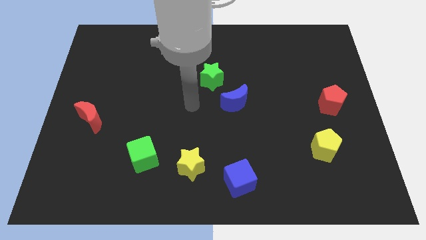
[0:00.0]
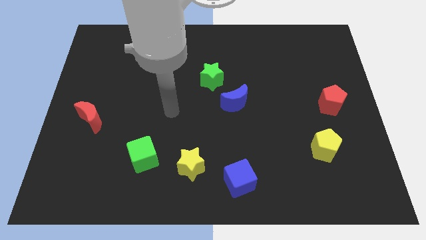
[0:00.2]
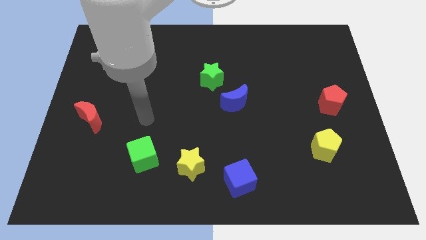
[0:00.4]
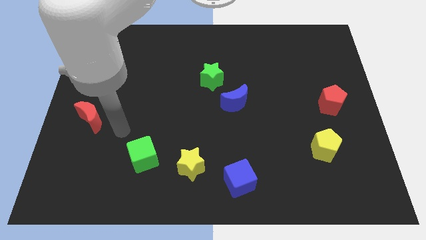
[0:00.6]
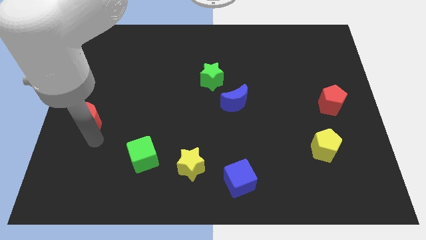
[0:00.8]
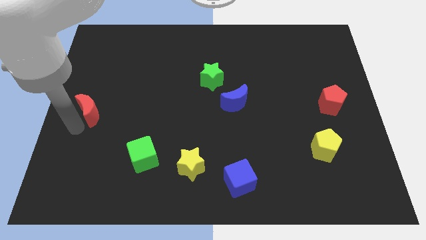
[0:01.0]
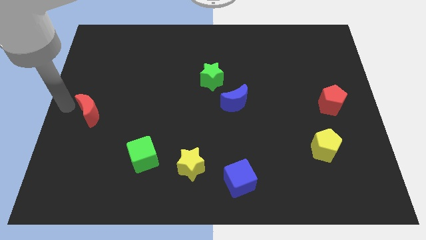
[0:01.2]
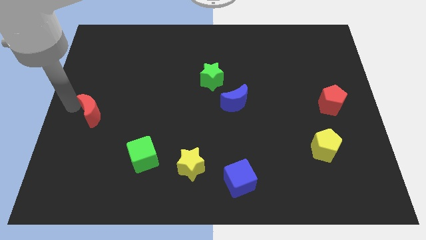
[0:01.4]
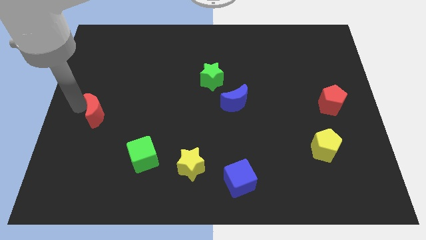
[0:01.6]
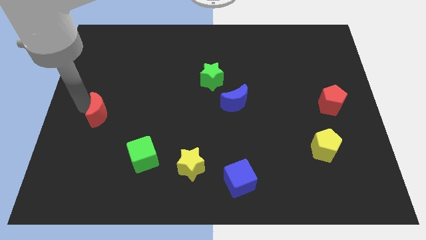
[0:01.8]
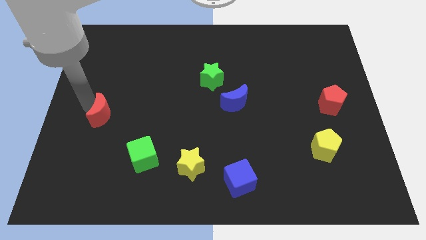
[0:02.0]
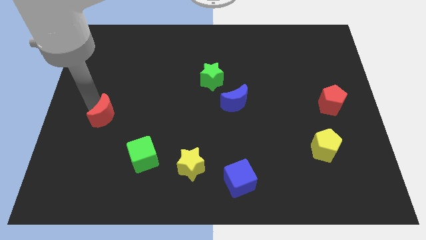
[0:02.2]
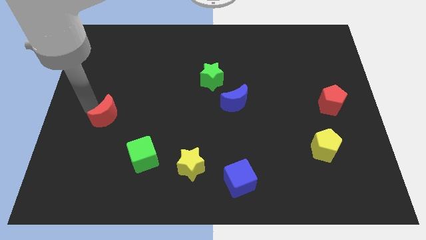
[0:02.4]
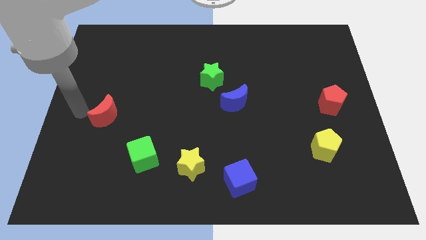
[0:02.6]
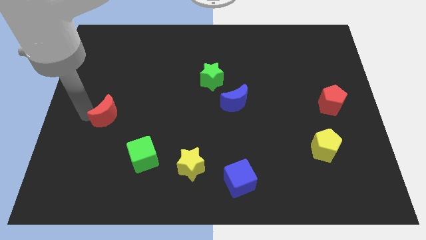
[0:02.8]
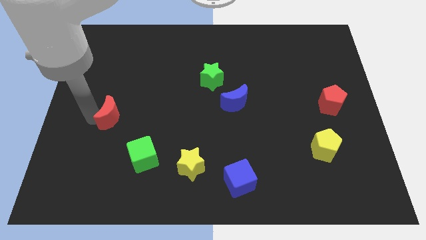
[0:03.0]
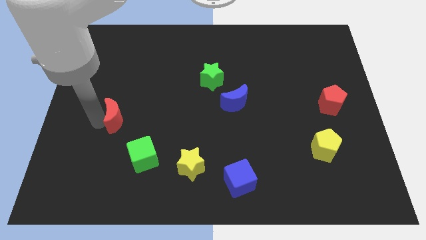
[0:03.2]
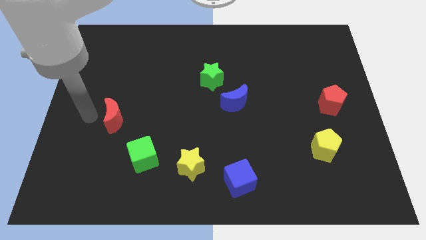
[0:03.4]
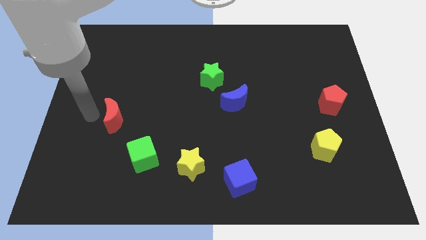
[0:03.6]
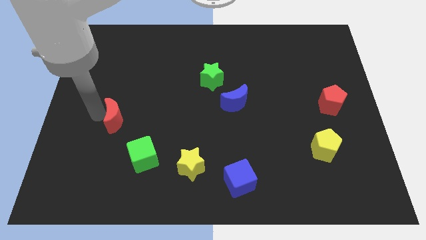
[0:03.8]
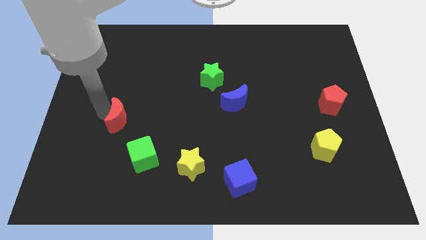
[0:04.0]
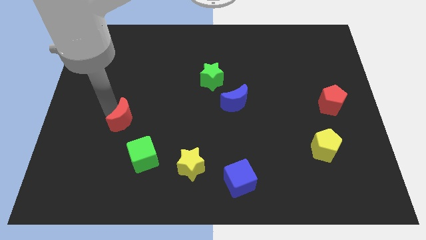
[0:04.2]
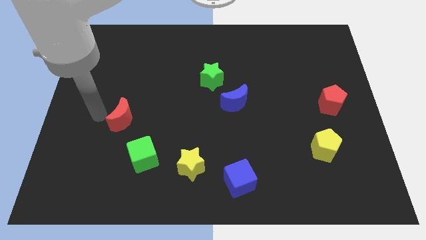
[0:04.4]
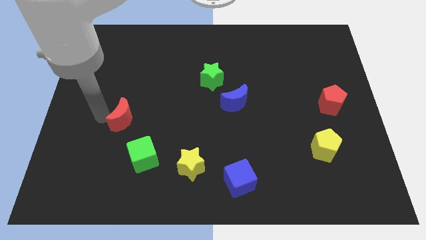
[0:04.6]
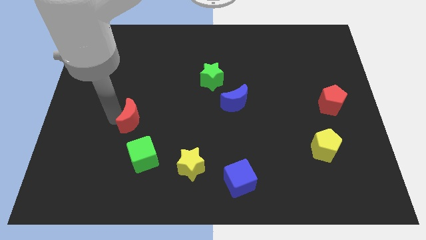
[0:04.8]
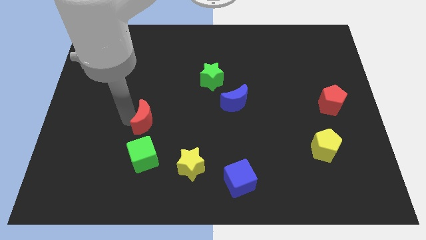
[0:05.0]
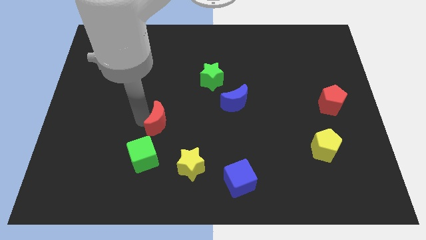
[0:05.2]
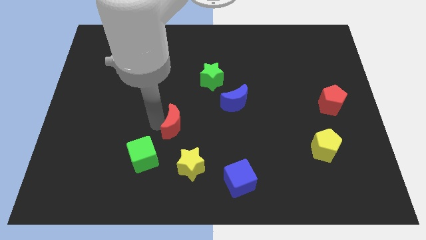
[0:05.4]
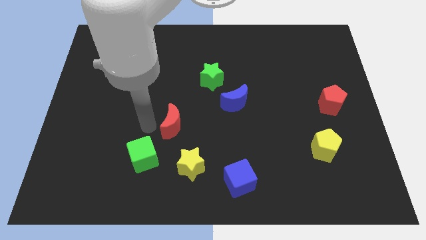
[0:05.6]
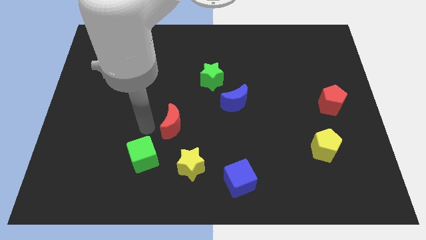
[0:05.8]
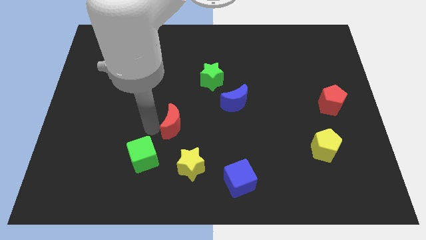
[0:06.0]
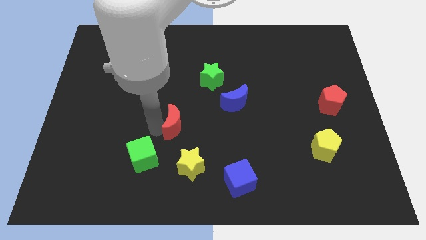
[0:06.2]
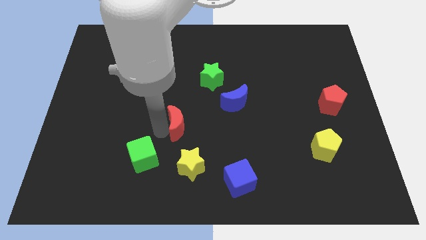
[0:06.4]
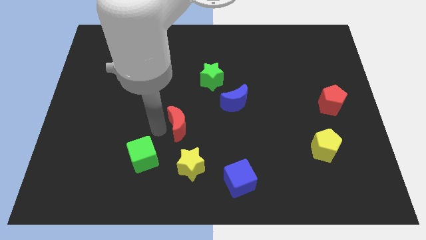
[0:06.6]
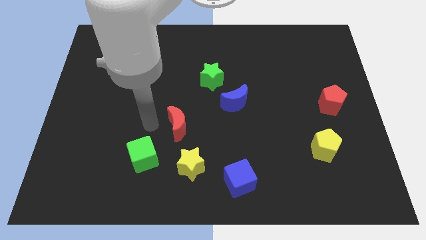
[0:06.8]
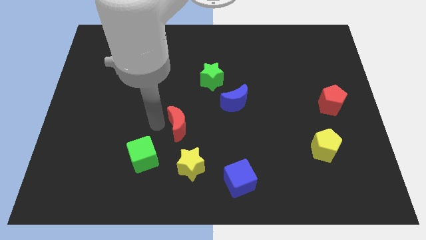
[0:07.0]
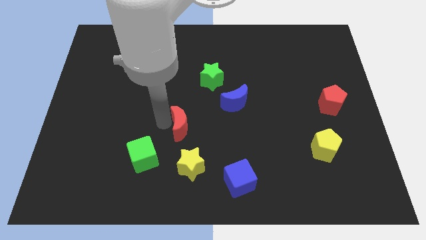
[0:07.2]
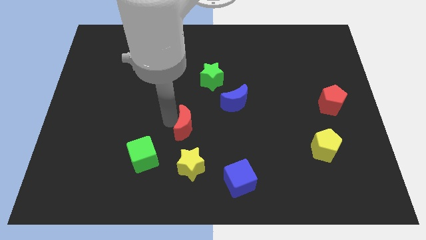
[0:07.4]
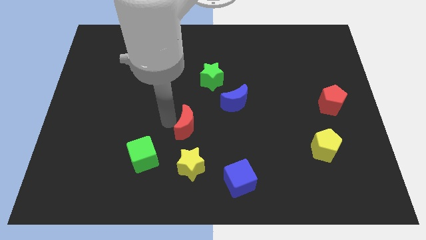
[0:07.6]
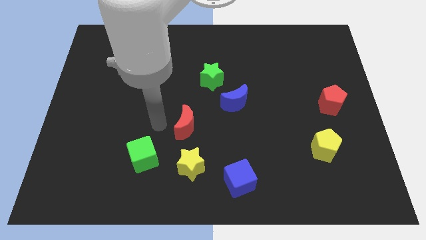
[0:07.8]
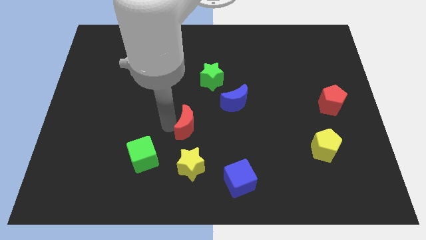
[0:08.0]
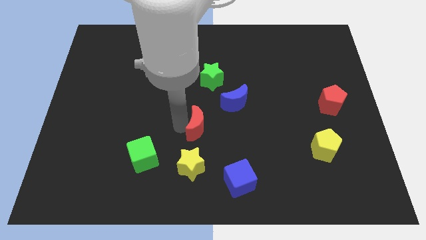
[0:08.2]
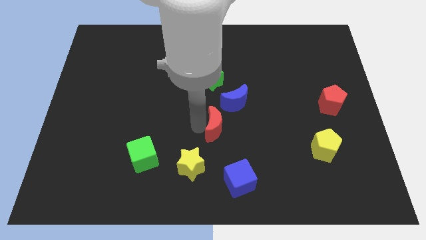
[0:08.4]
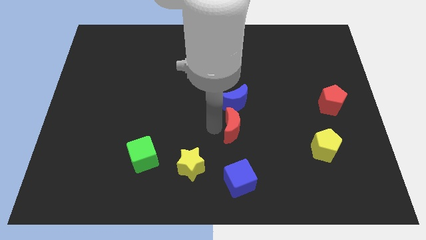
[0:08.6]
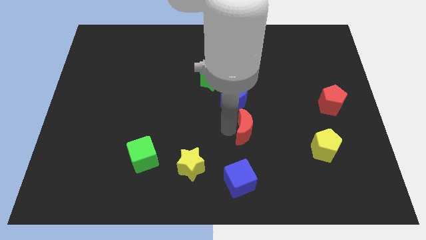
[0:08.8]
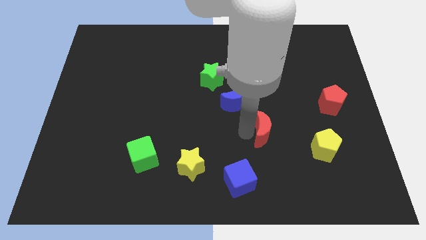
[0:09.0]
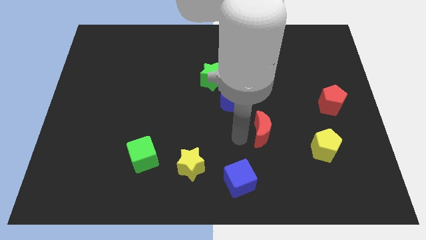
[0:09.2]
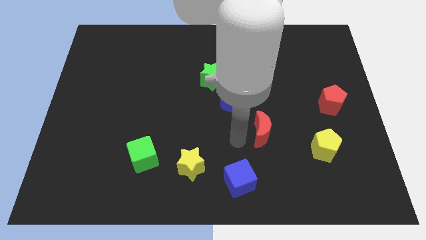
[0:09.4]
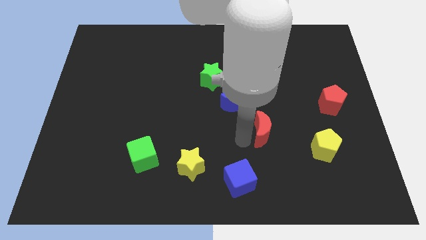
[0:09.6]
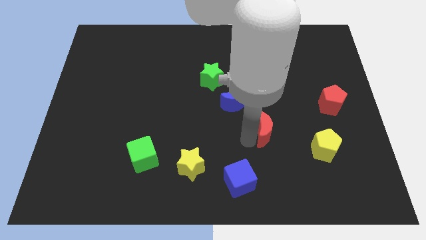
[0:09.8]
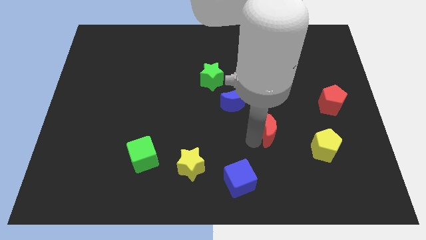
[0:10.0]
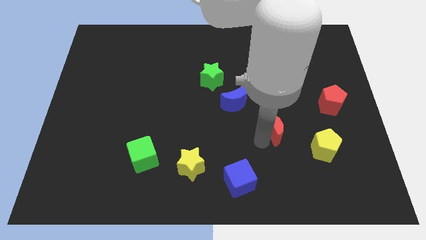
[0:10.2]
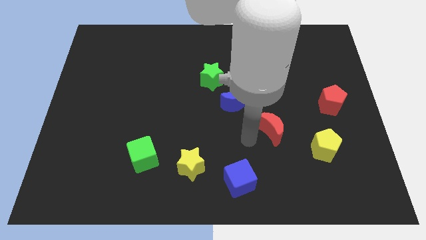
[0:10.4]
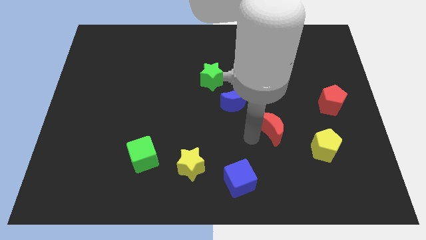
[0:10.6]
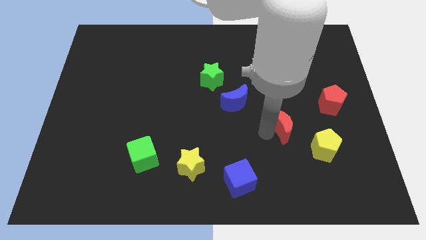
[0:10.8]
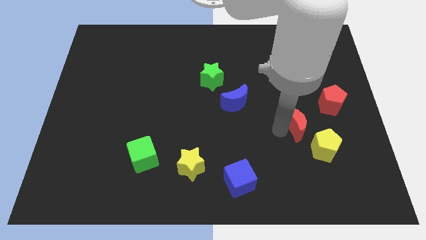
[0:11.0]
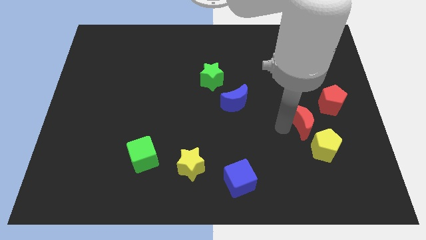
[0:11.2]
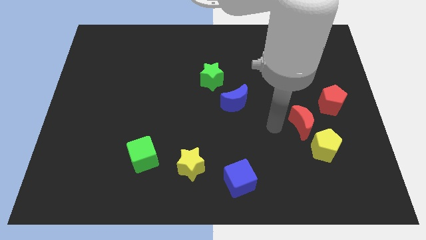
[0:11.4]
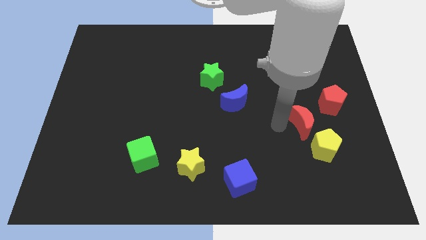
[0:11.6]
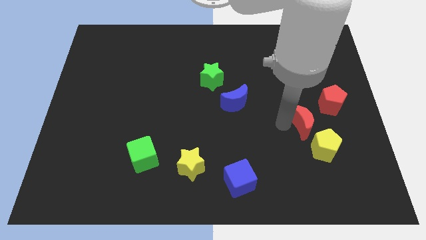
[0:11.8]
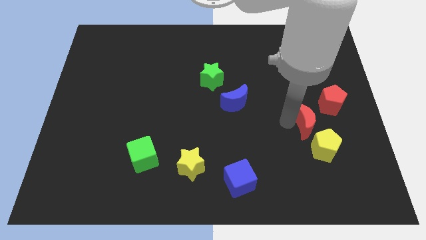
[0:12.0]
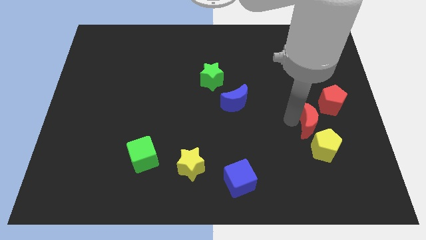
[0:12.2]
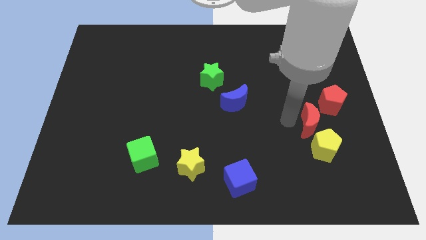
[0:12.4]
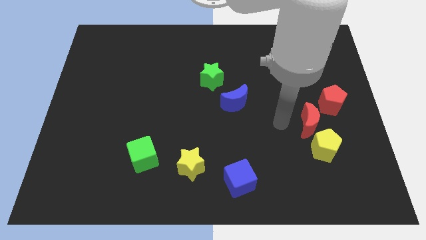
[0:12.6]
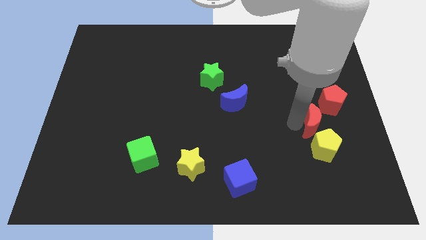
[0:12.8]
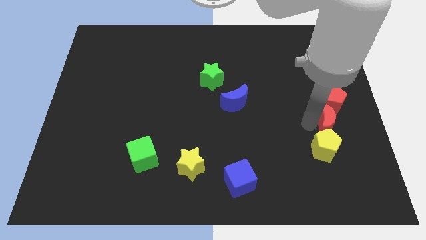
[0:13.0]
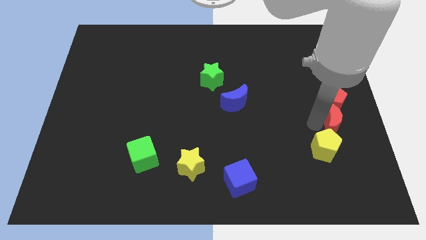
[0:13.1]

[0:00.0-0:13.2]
slide the red moon to the center right
